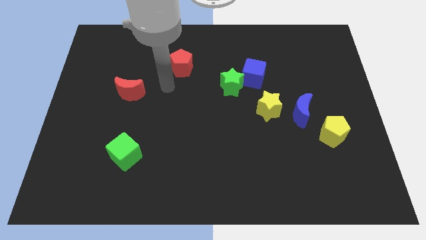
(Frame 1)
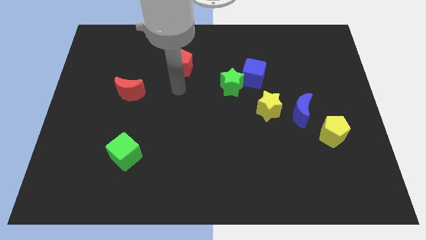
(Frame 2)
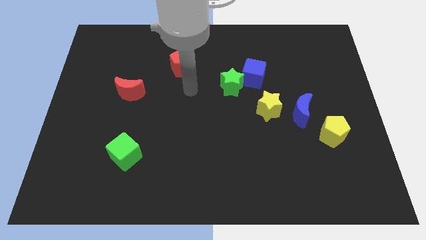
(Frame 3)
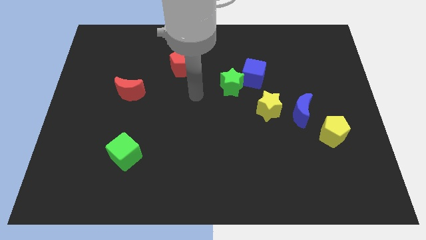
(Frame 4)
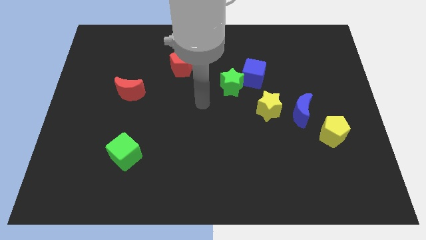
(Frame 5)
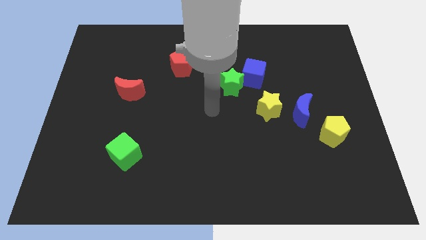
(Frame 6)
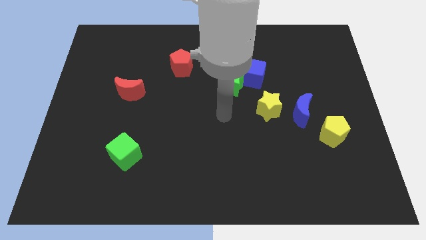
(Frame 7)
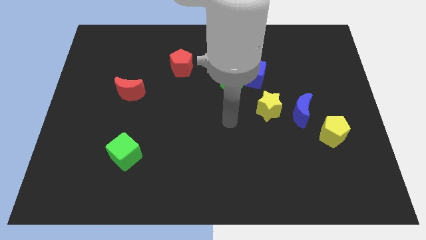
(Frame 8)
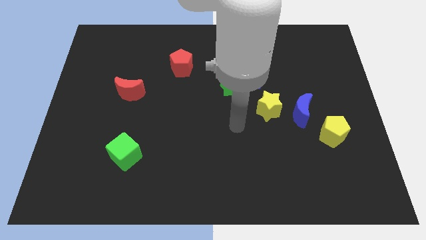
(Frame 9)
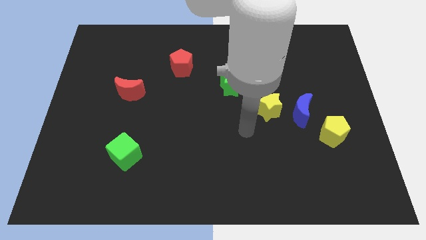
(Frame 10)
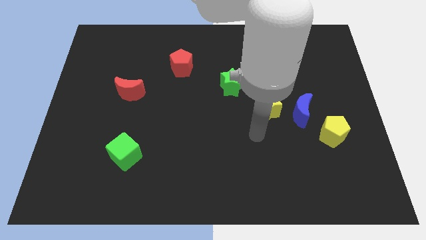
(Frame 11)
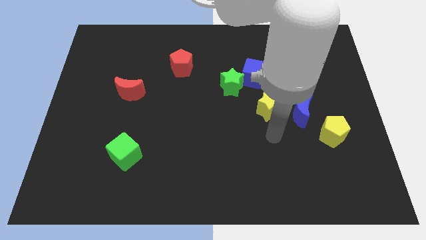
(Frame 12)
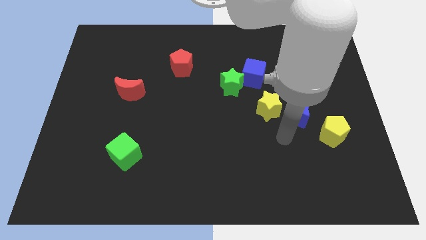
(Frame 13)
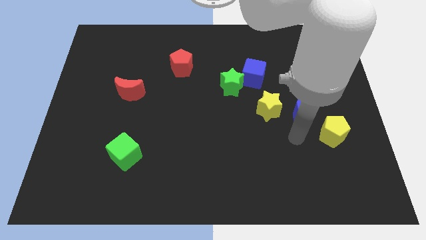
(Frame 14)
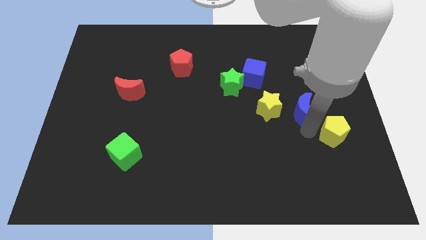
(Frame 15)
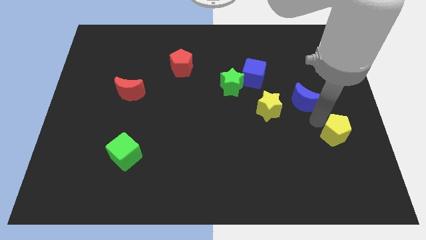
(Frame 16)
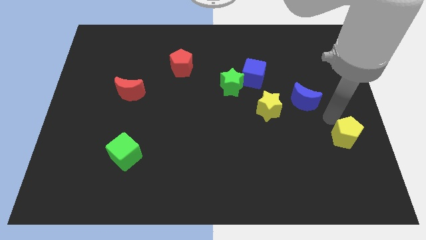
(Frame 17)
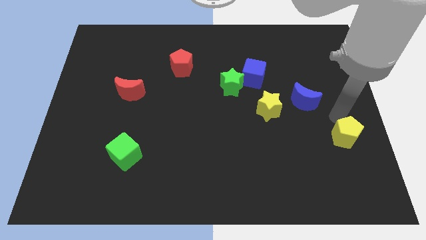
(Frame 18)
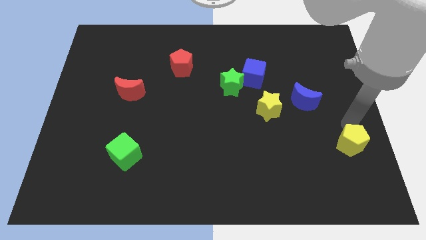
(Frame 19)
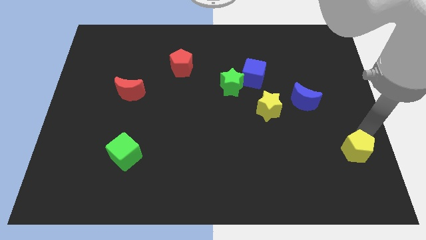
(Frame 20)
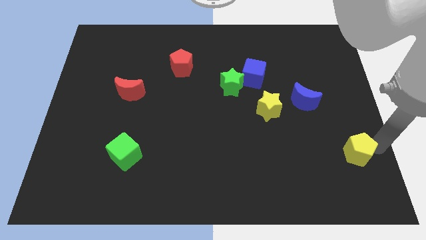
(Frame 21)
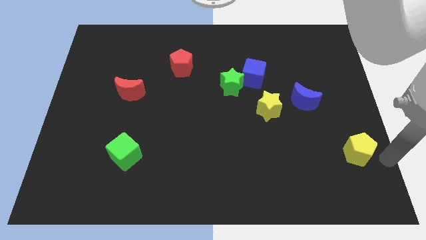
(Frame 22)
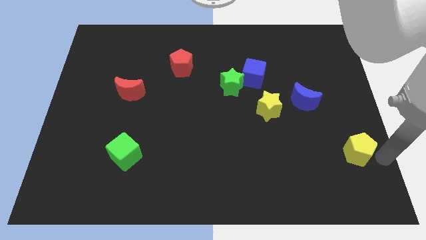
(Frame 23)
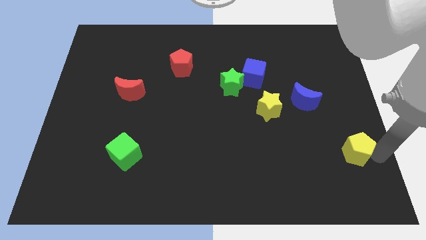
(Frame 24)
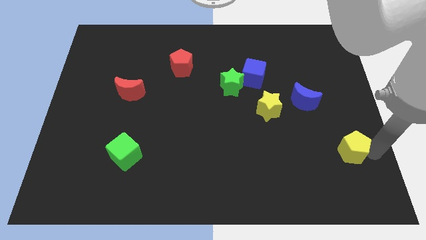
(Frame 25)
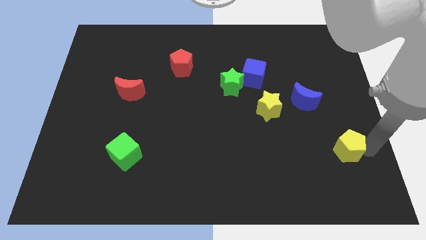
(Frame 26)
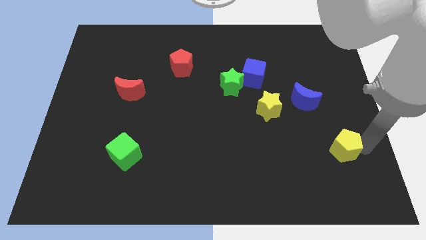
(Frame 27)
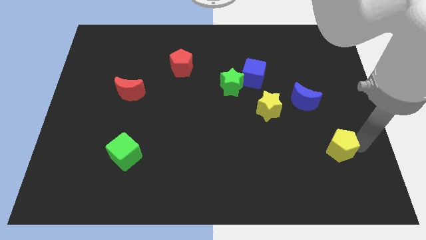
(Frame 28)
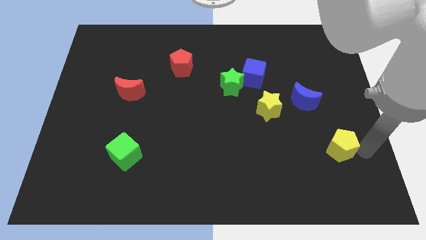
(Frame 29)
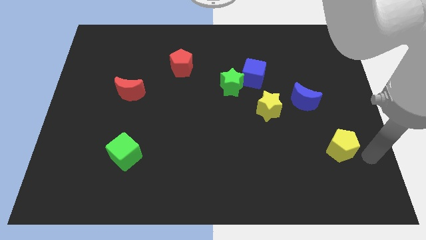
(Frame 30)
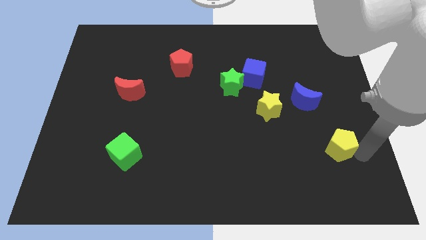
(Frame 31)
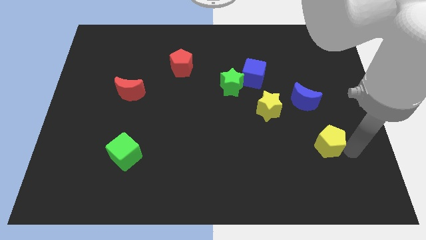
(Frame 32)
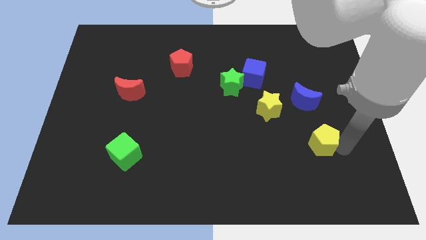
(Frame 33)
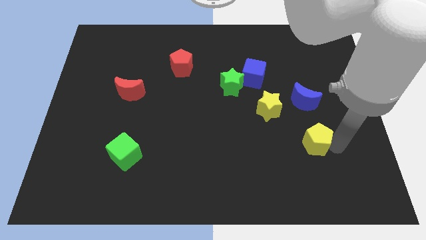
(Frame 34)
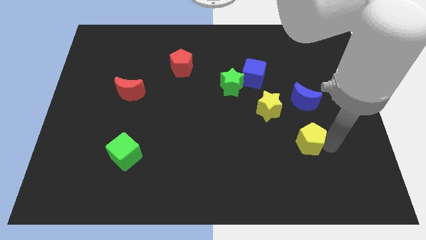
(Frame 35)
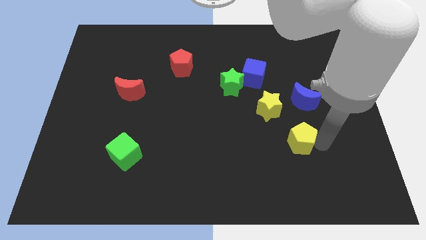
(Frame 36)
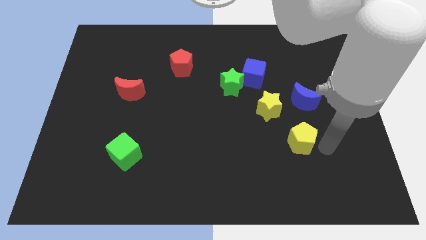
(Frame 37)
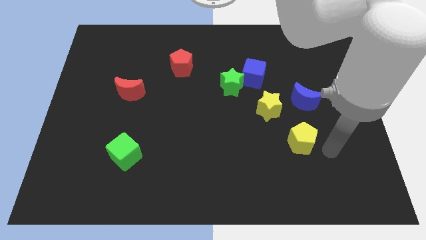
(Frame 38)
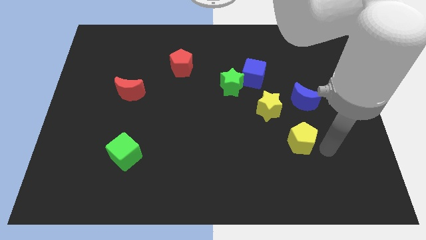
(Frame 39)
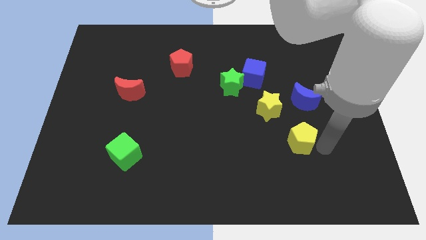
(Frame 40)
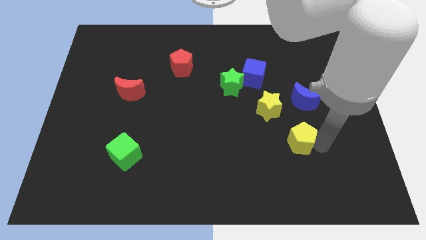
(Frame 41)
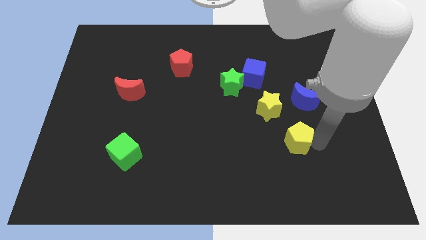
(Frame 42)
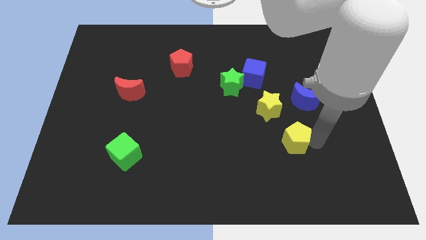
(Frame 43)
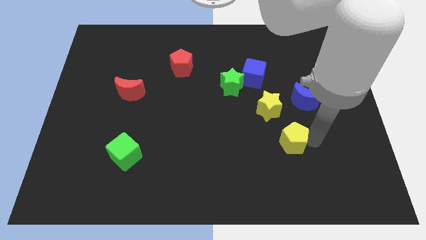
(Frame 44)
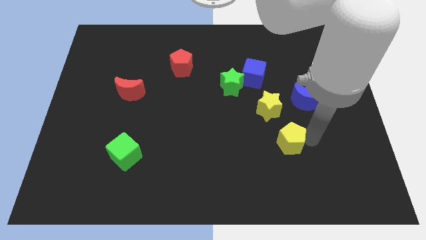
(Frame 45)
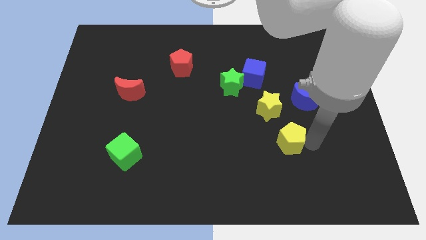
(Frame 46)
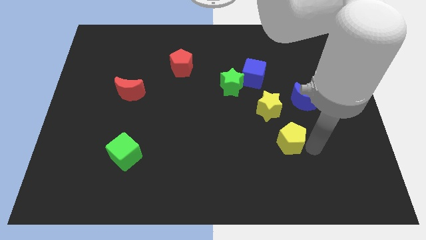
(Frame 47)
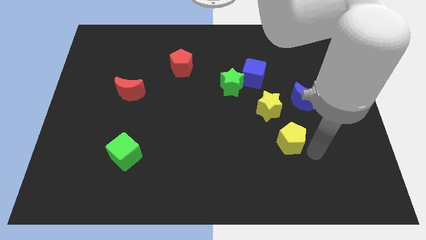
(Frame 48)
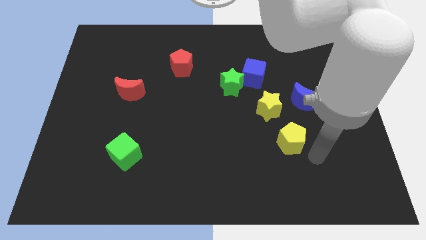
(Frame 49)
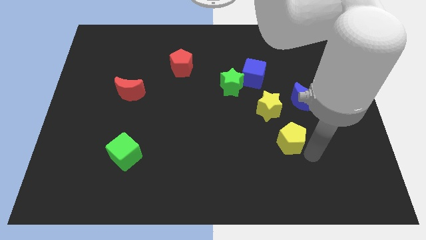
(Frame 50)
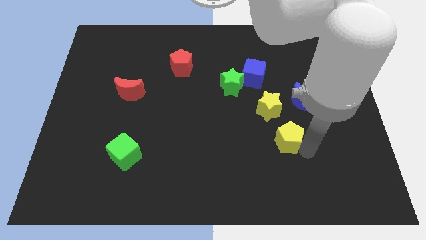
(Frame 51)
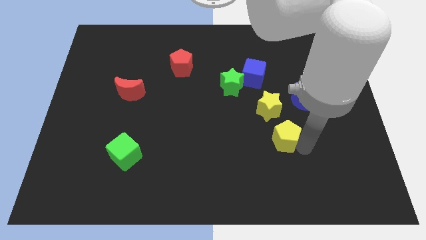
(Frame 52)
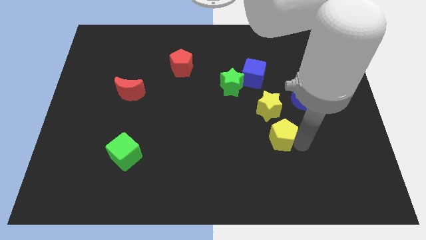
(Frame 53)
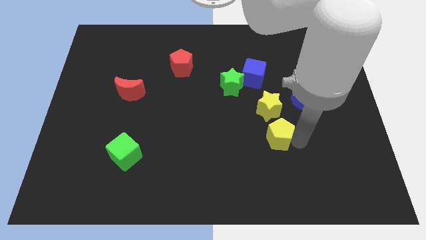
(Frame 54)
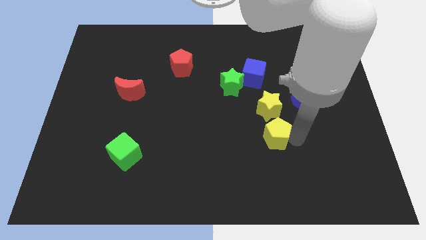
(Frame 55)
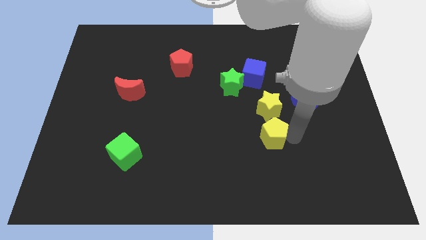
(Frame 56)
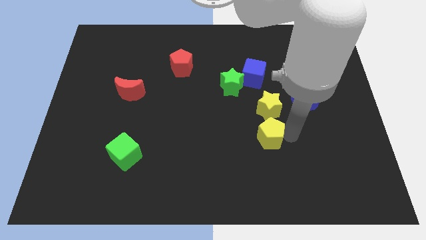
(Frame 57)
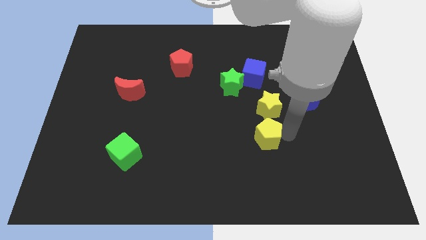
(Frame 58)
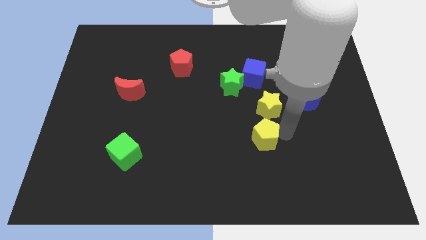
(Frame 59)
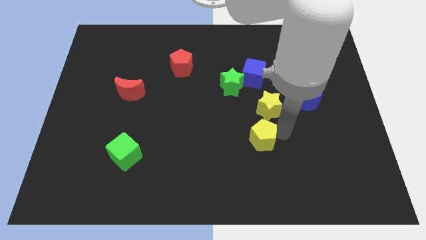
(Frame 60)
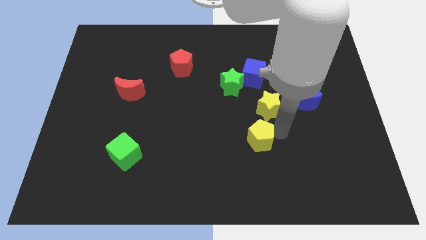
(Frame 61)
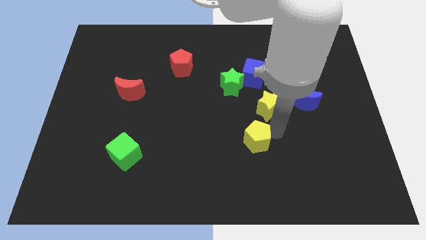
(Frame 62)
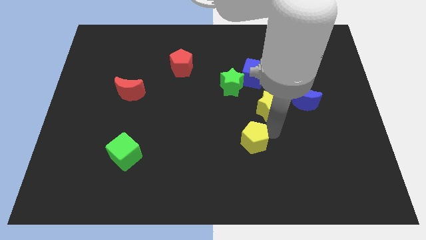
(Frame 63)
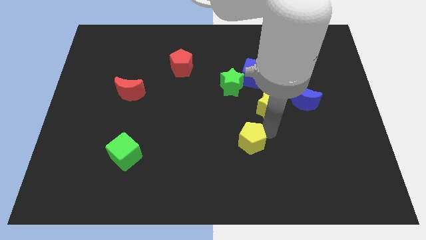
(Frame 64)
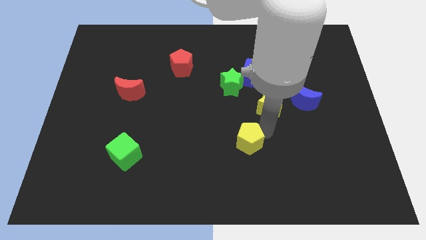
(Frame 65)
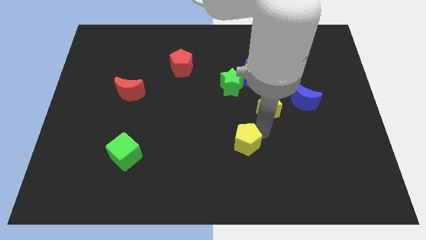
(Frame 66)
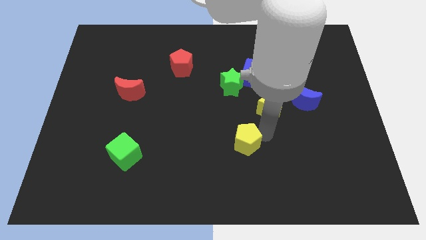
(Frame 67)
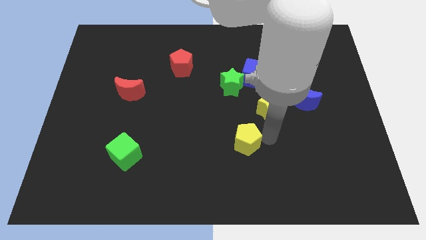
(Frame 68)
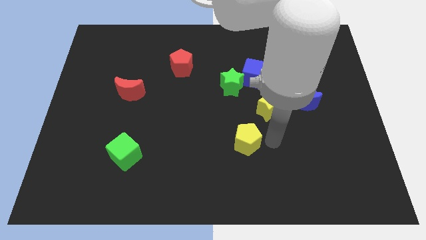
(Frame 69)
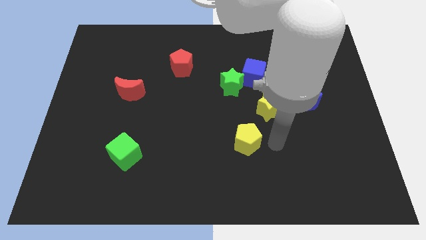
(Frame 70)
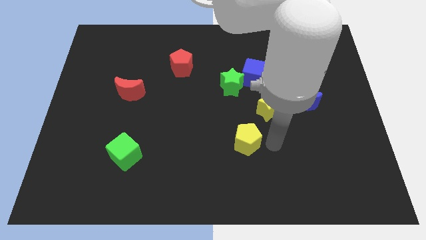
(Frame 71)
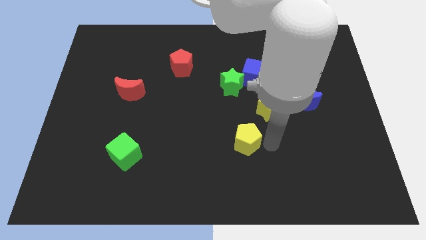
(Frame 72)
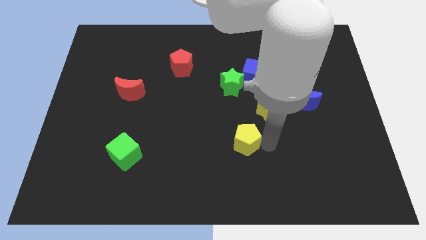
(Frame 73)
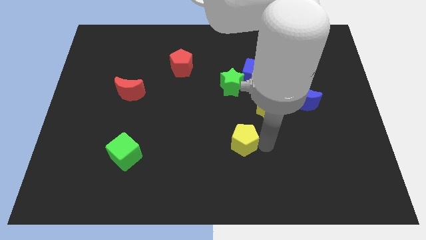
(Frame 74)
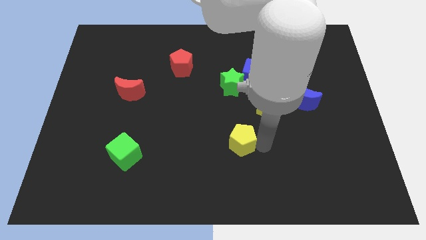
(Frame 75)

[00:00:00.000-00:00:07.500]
move the yellow pentagon to the left

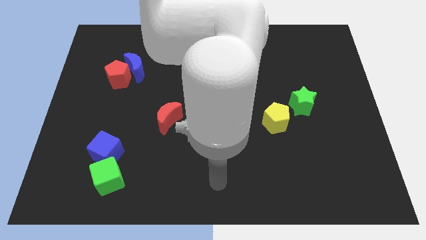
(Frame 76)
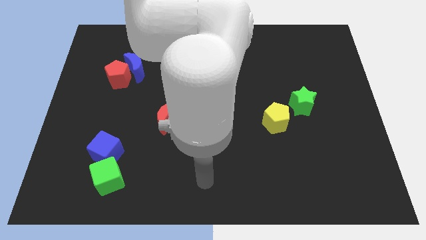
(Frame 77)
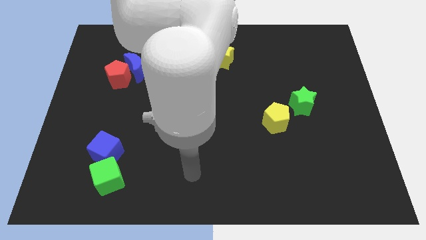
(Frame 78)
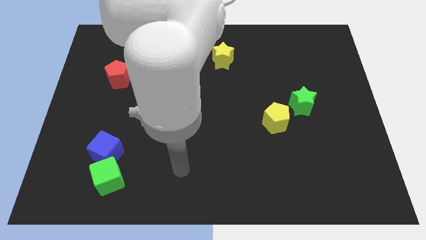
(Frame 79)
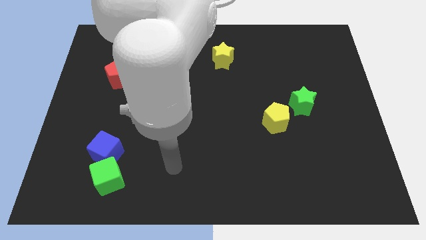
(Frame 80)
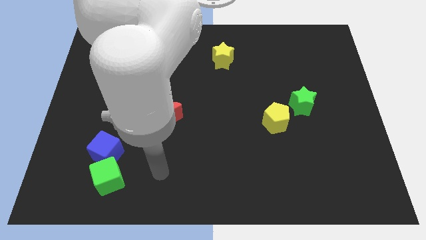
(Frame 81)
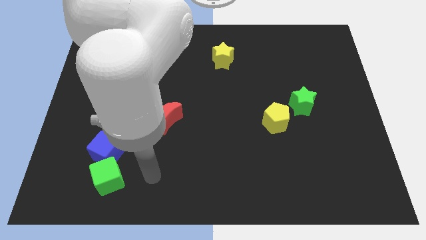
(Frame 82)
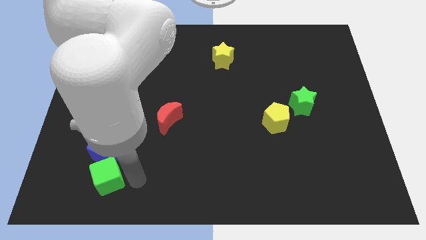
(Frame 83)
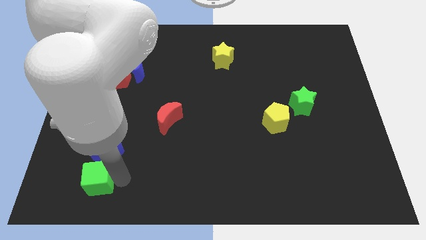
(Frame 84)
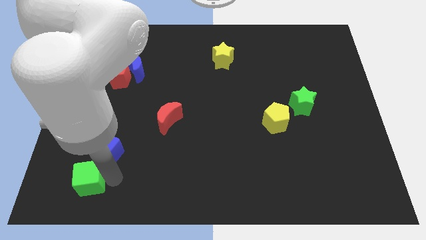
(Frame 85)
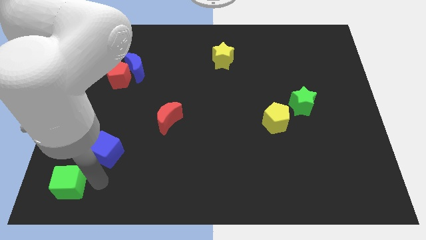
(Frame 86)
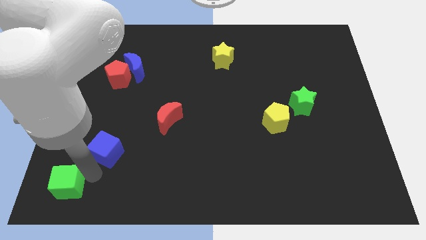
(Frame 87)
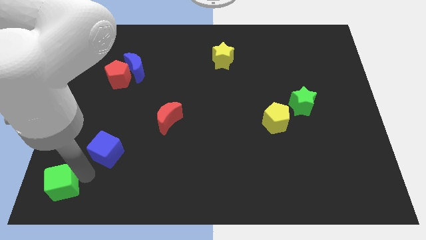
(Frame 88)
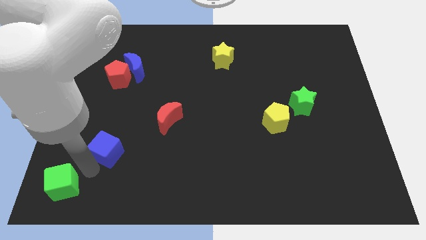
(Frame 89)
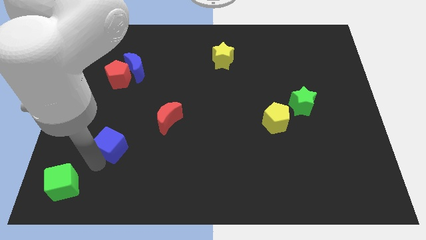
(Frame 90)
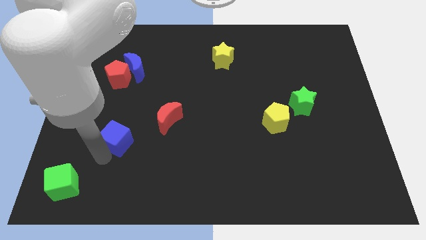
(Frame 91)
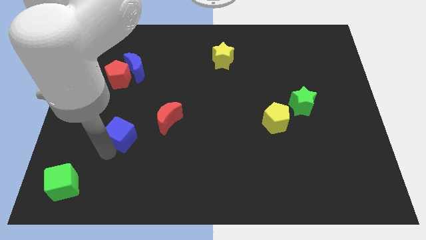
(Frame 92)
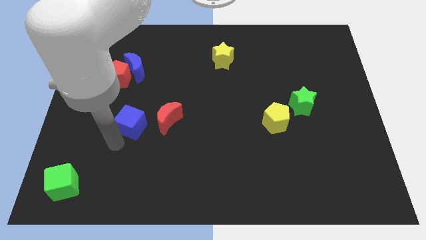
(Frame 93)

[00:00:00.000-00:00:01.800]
slightly push the blue cube upwards and then right
